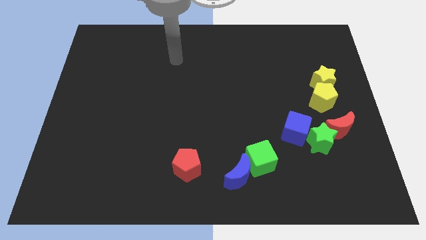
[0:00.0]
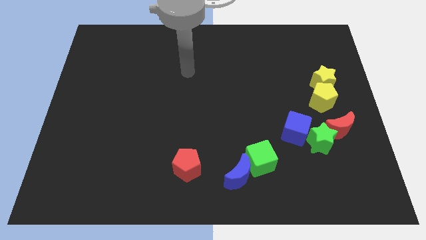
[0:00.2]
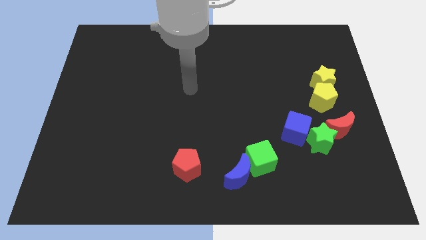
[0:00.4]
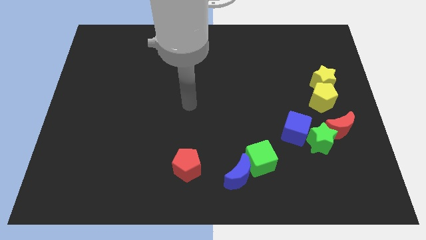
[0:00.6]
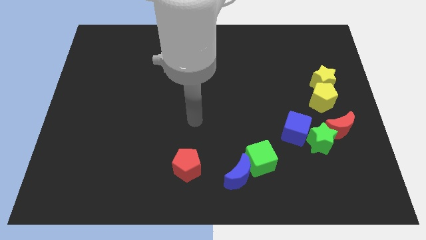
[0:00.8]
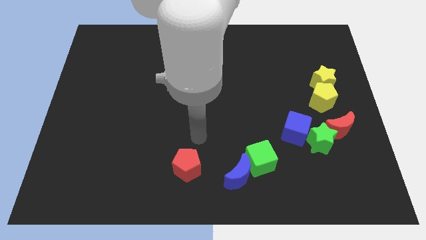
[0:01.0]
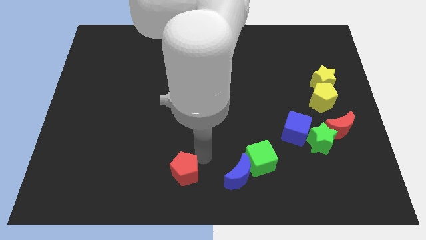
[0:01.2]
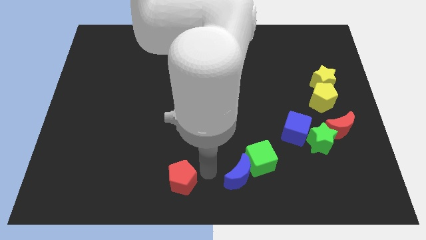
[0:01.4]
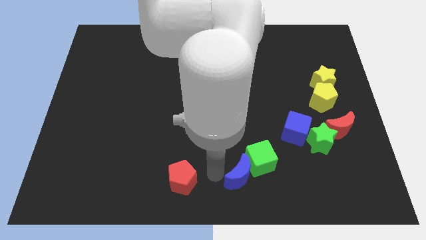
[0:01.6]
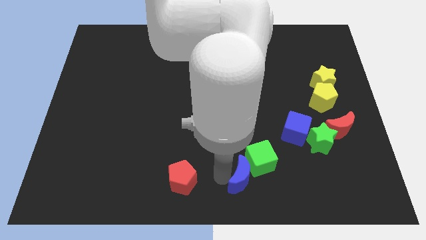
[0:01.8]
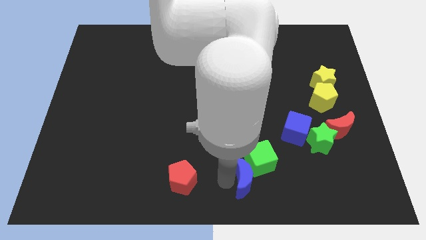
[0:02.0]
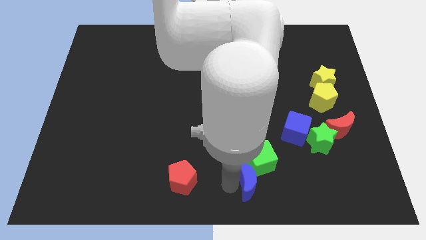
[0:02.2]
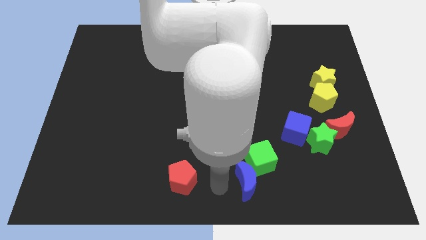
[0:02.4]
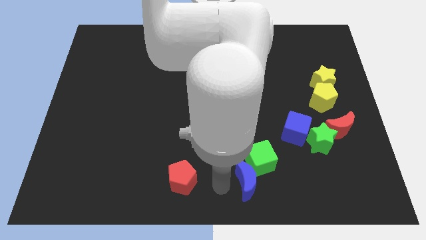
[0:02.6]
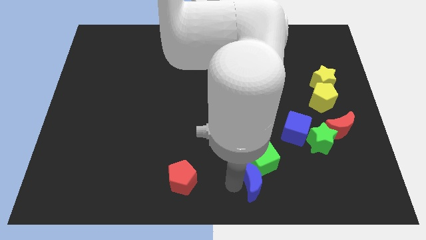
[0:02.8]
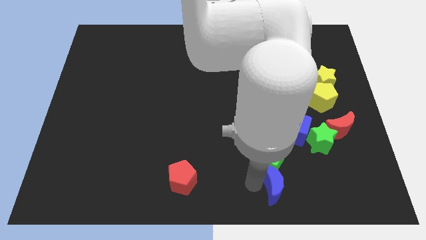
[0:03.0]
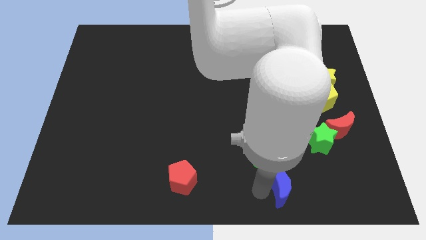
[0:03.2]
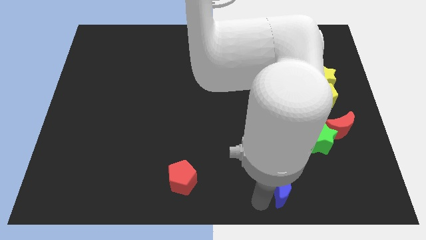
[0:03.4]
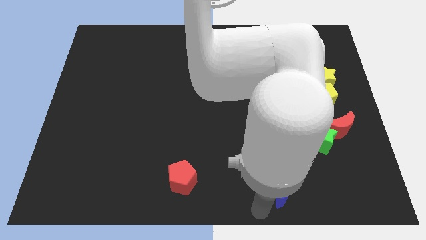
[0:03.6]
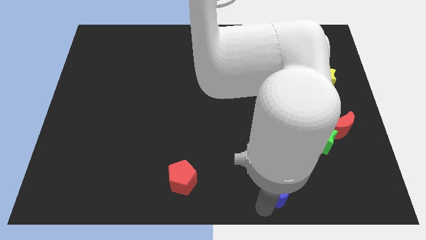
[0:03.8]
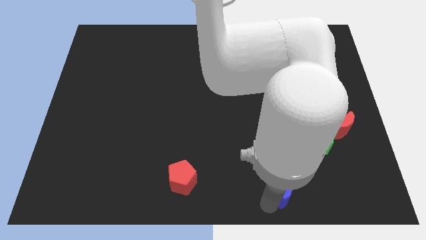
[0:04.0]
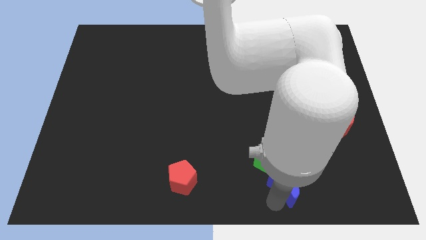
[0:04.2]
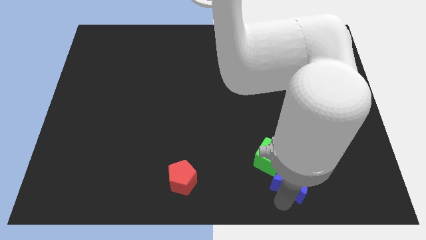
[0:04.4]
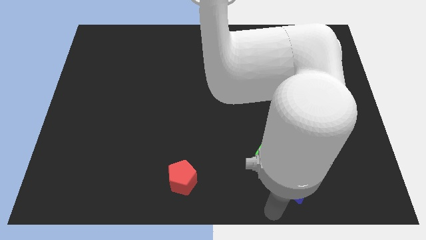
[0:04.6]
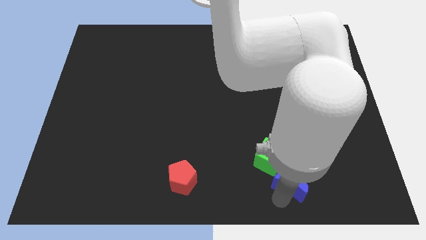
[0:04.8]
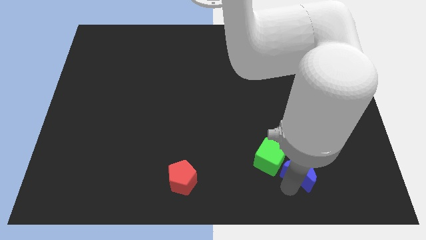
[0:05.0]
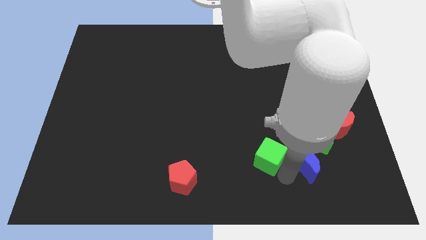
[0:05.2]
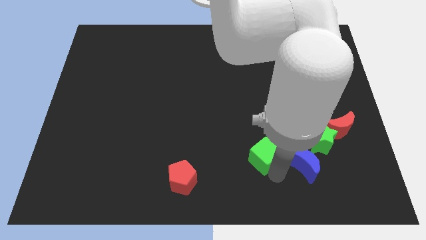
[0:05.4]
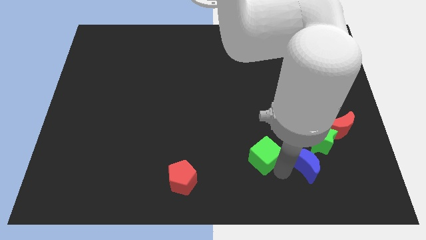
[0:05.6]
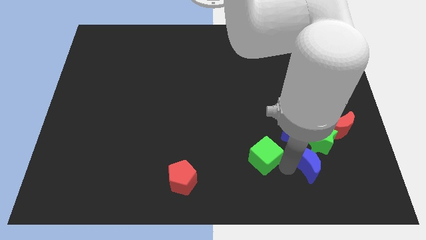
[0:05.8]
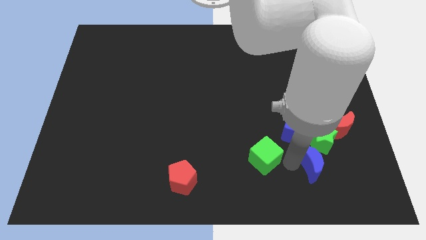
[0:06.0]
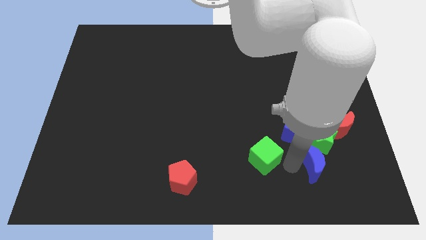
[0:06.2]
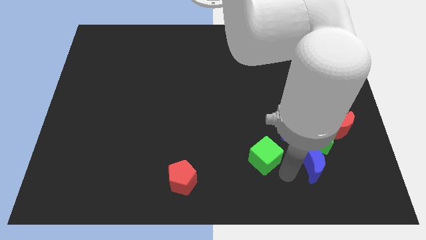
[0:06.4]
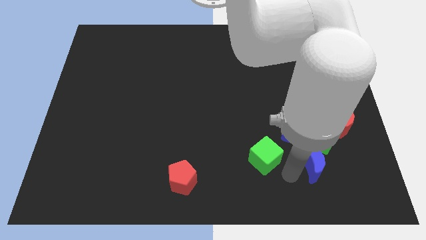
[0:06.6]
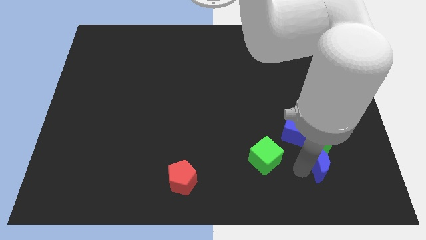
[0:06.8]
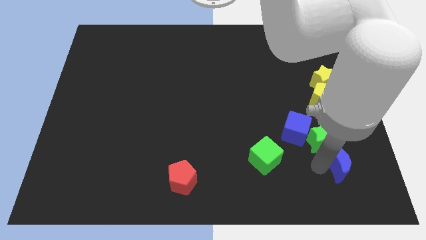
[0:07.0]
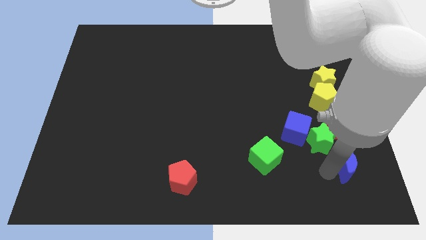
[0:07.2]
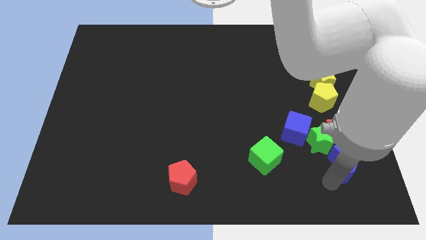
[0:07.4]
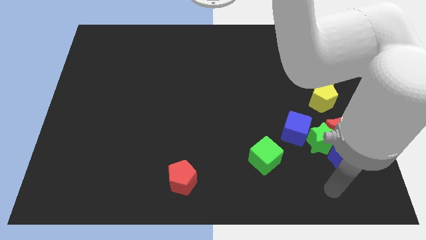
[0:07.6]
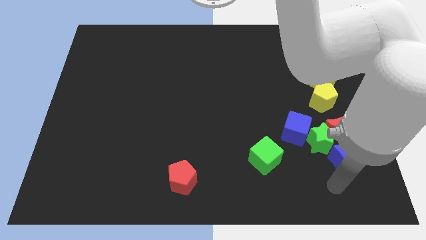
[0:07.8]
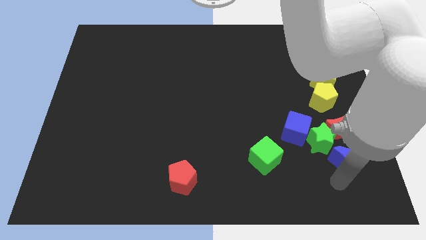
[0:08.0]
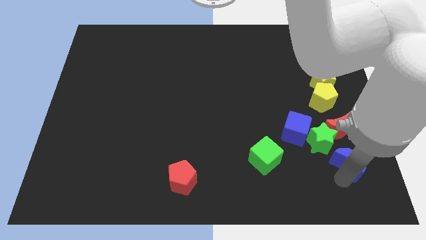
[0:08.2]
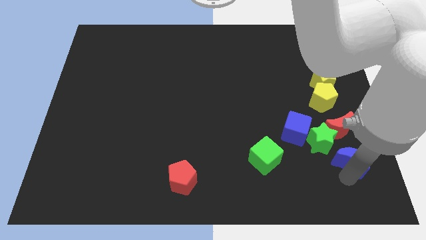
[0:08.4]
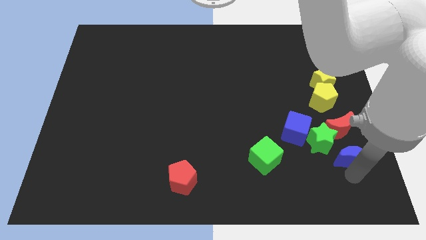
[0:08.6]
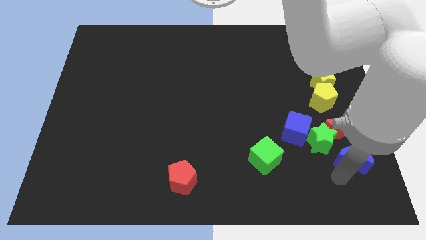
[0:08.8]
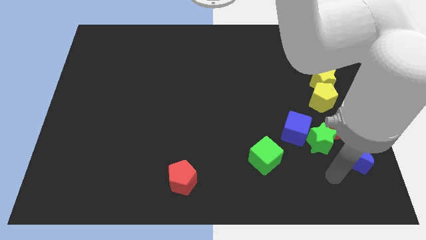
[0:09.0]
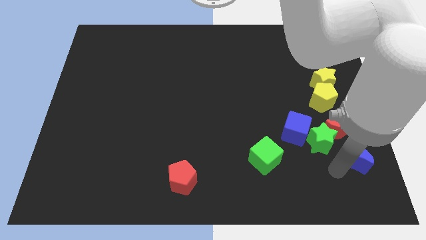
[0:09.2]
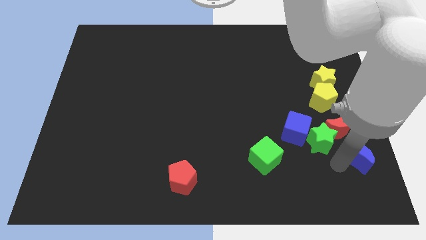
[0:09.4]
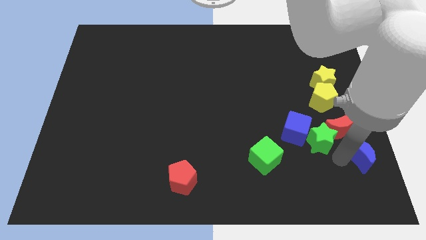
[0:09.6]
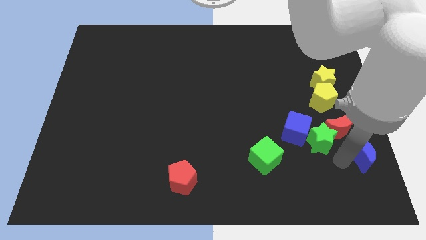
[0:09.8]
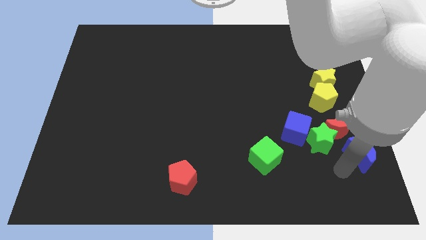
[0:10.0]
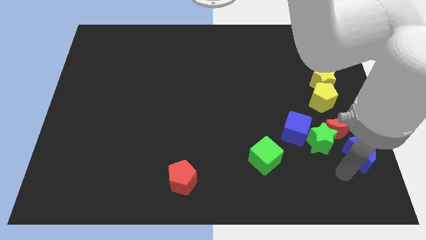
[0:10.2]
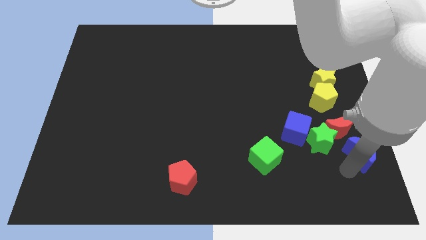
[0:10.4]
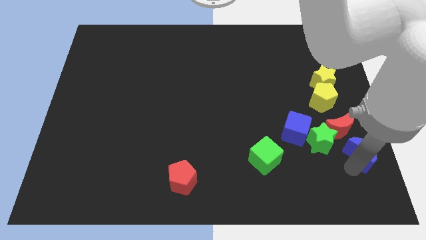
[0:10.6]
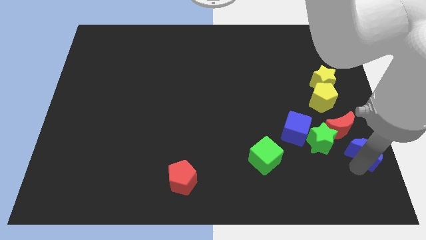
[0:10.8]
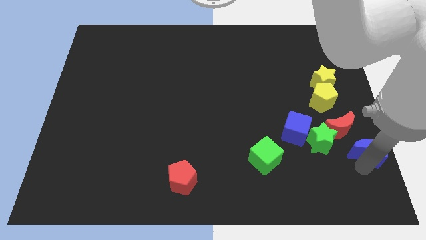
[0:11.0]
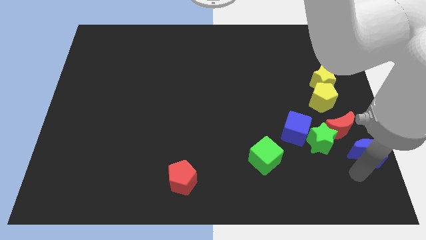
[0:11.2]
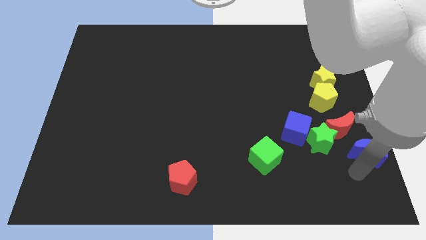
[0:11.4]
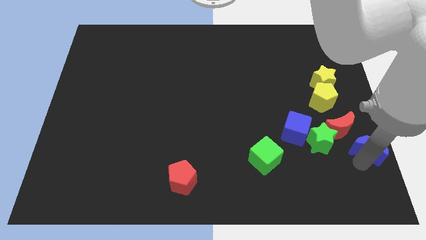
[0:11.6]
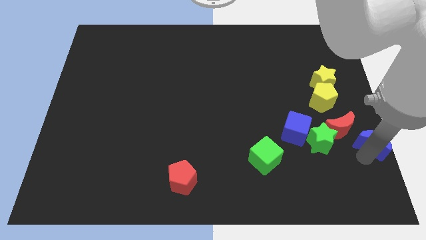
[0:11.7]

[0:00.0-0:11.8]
push the blue moon to the right side of the board
